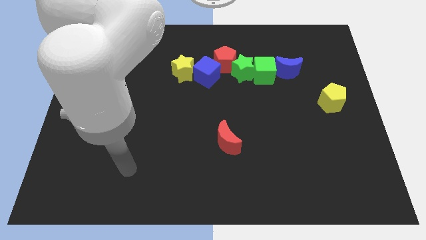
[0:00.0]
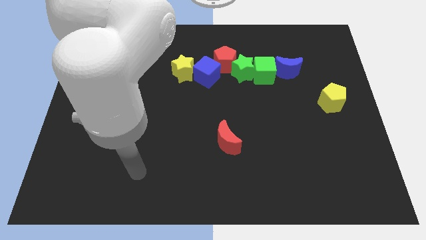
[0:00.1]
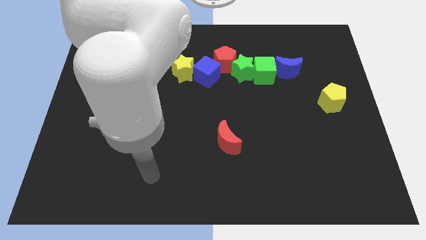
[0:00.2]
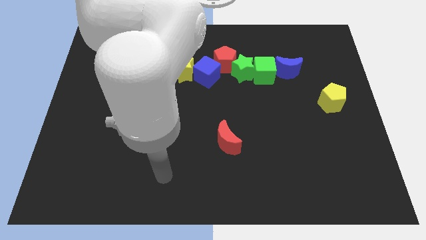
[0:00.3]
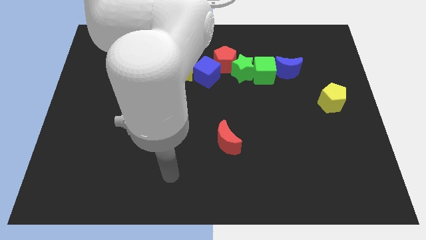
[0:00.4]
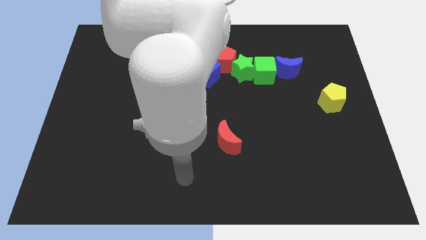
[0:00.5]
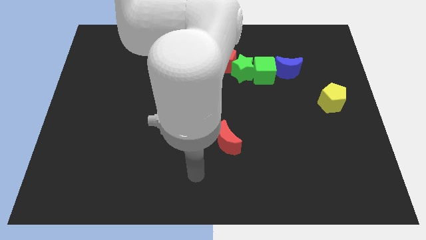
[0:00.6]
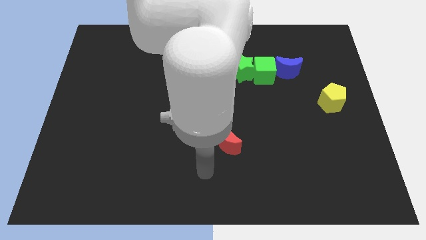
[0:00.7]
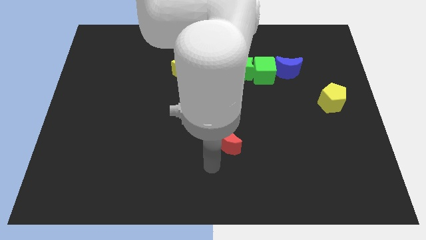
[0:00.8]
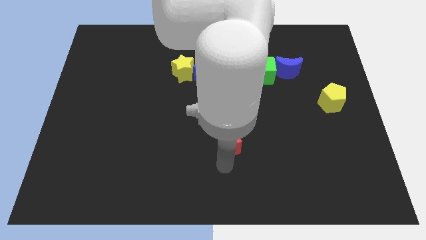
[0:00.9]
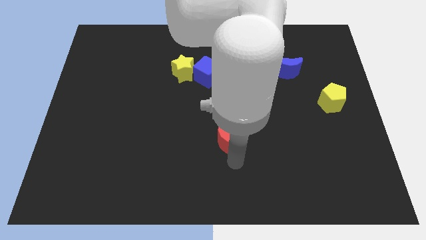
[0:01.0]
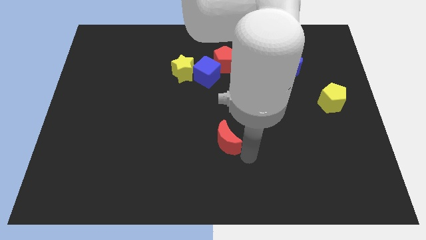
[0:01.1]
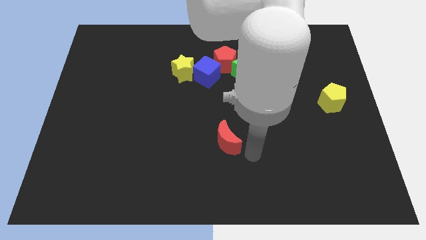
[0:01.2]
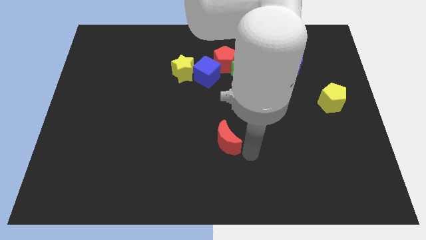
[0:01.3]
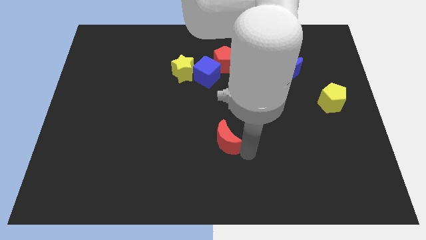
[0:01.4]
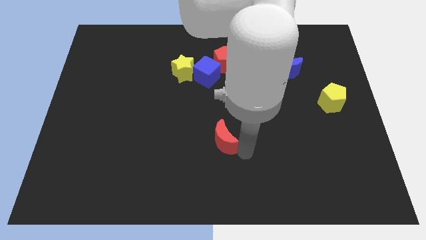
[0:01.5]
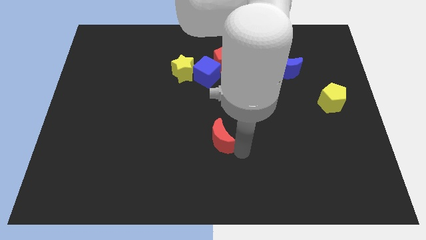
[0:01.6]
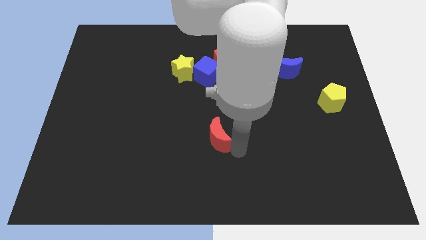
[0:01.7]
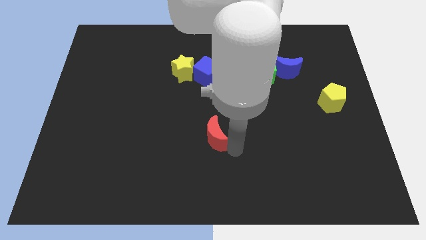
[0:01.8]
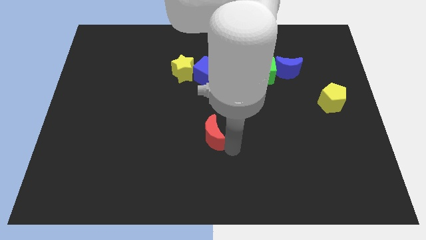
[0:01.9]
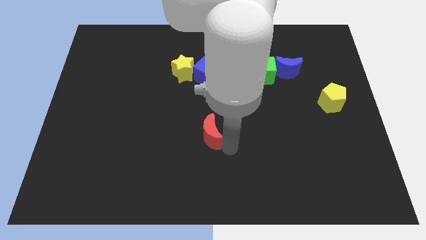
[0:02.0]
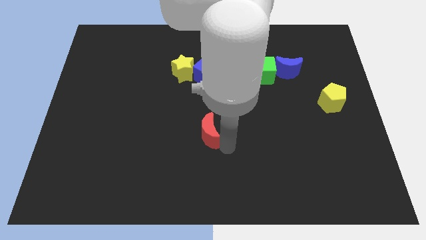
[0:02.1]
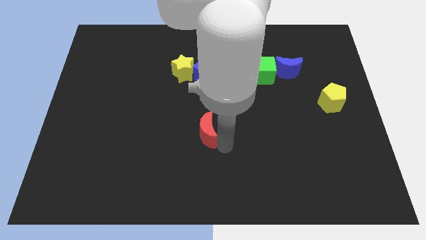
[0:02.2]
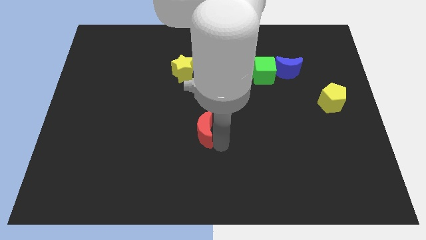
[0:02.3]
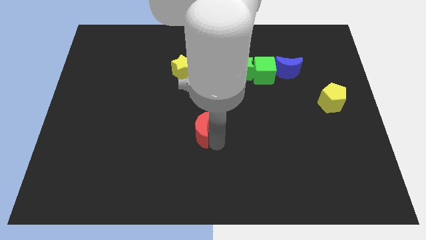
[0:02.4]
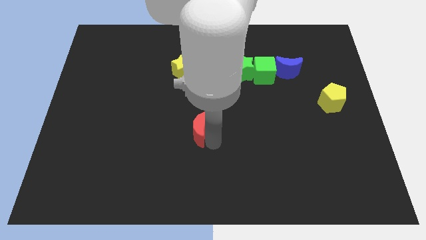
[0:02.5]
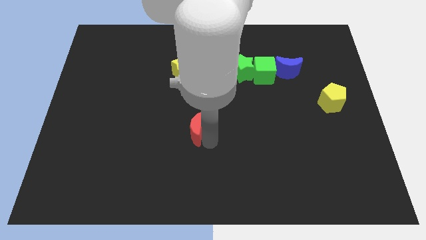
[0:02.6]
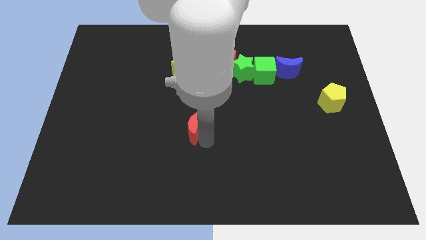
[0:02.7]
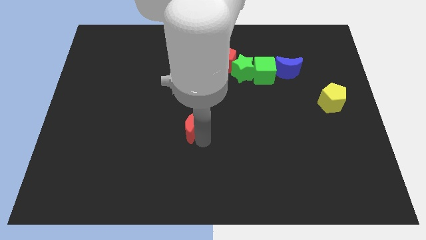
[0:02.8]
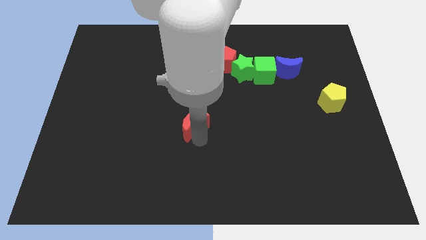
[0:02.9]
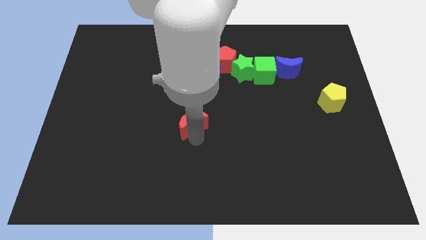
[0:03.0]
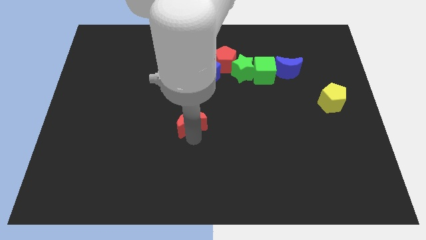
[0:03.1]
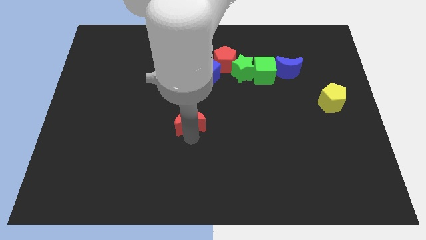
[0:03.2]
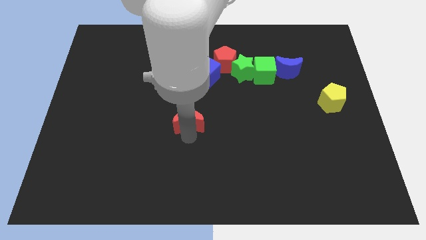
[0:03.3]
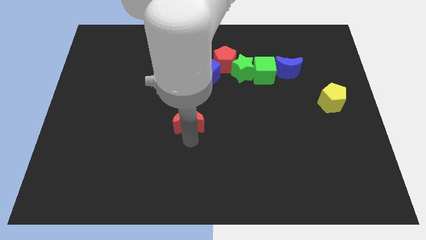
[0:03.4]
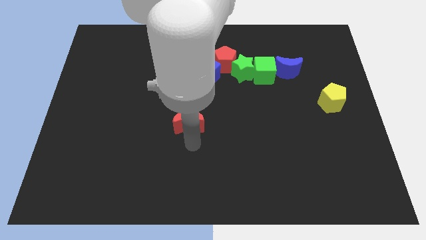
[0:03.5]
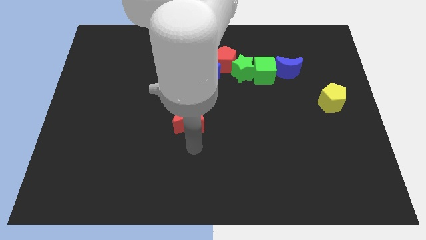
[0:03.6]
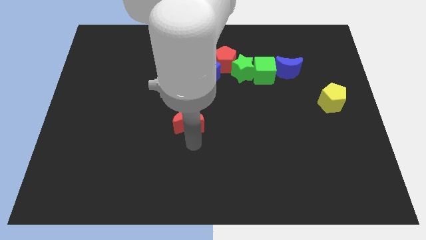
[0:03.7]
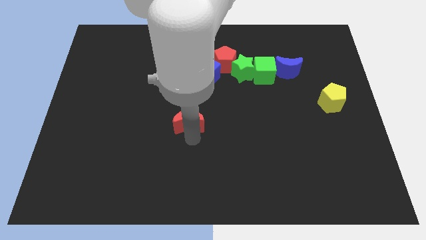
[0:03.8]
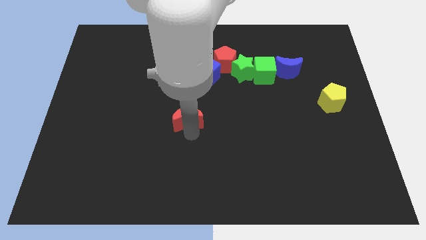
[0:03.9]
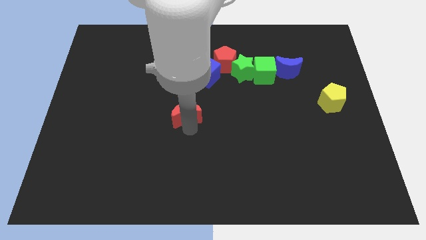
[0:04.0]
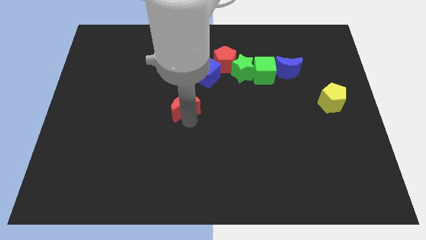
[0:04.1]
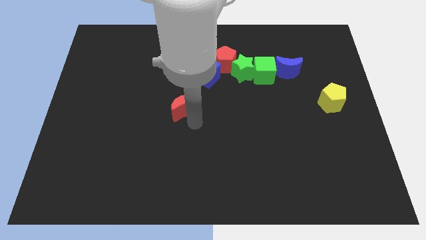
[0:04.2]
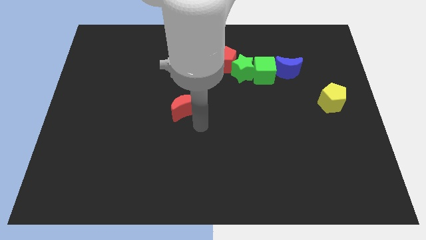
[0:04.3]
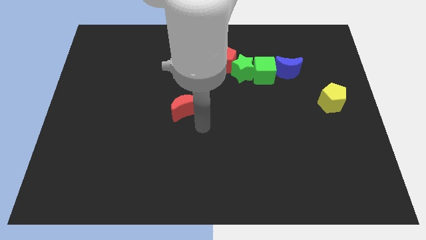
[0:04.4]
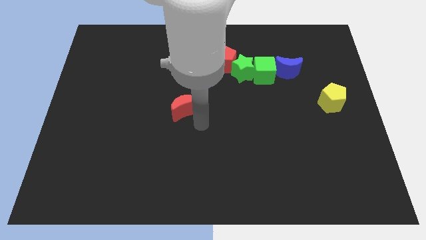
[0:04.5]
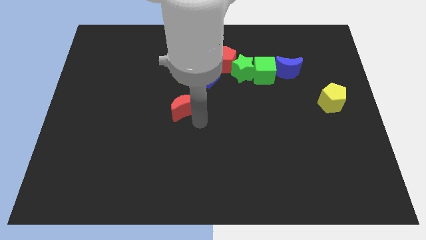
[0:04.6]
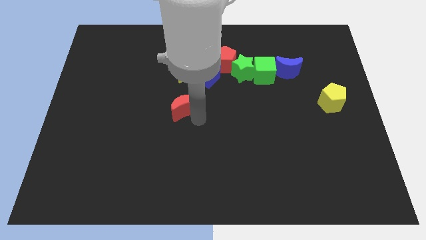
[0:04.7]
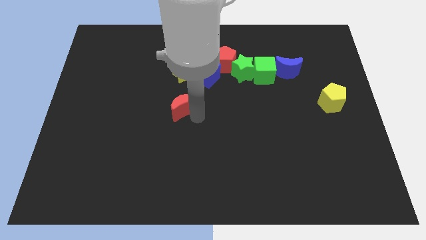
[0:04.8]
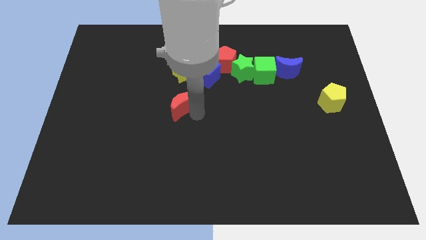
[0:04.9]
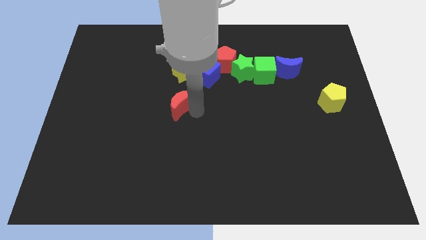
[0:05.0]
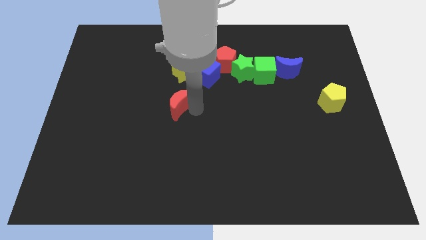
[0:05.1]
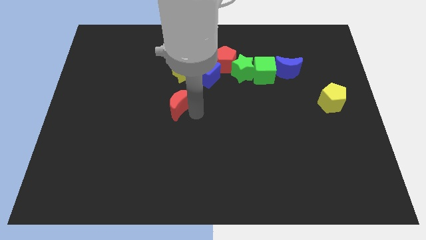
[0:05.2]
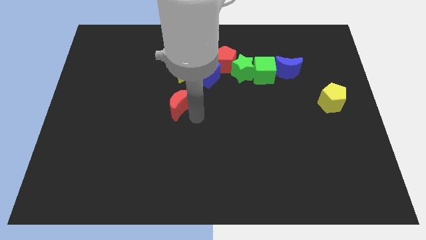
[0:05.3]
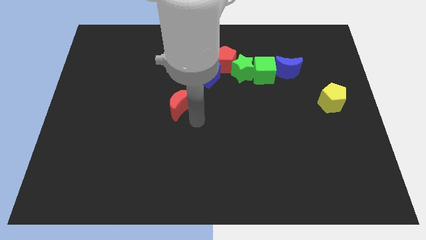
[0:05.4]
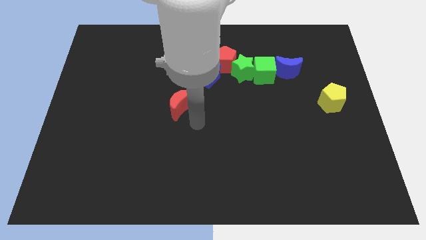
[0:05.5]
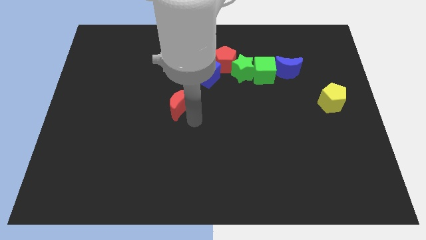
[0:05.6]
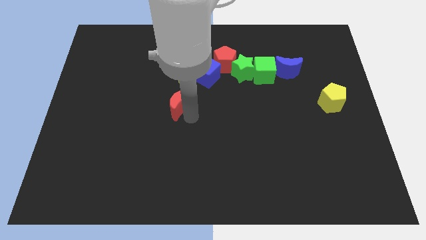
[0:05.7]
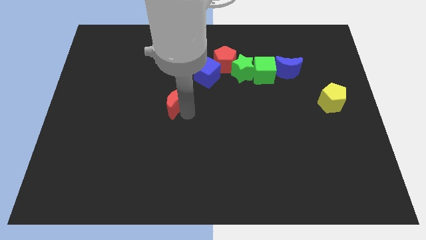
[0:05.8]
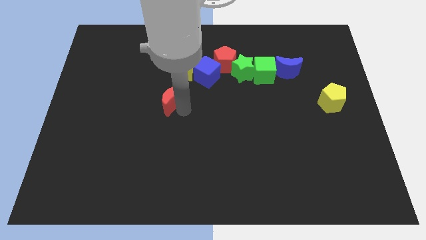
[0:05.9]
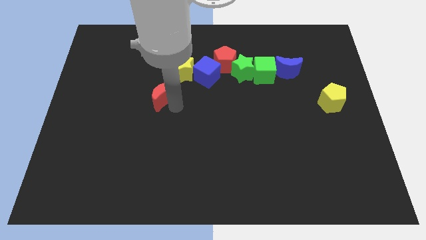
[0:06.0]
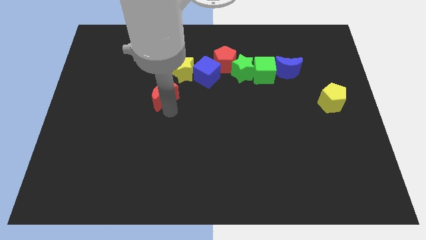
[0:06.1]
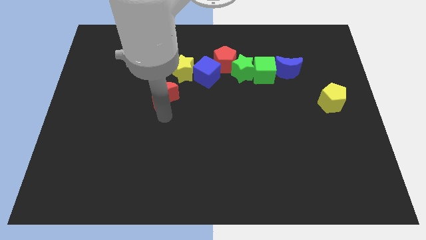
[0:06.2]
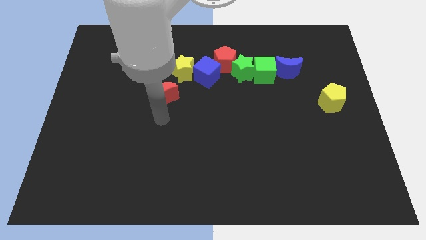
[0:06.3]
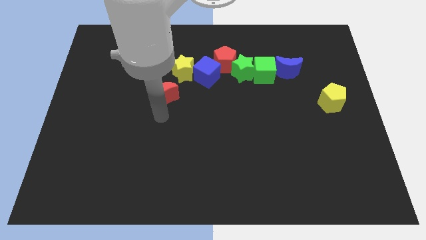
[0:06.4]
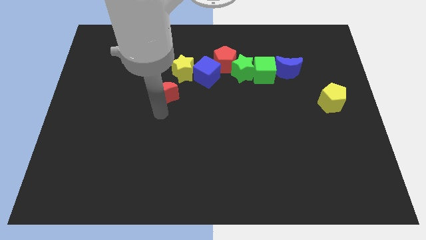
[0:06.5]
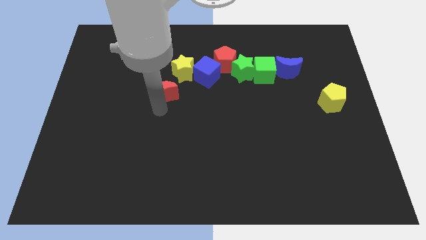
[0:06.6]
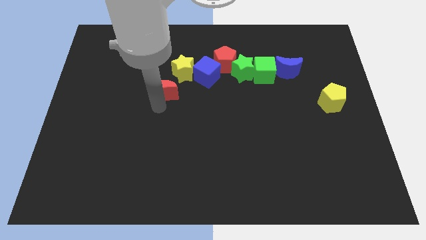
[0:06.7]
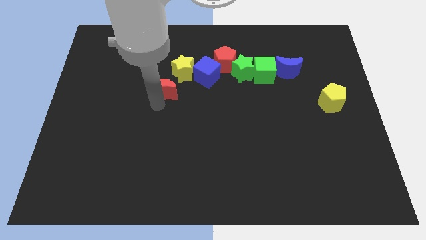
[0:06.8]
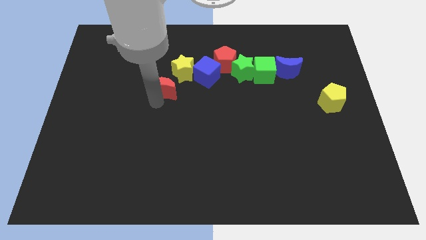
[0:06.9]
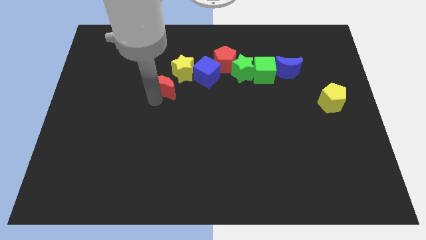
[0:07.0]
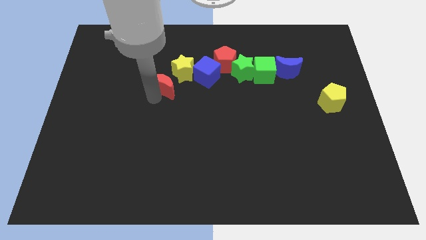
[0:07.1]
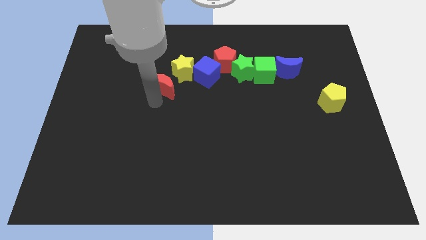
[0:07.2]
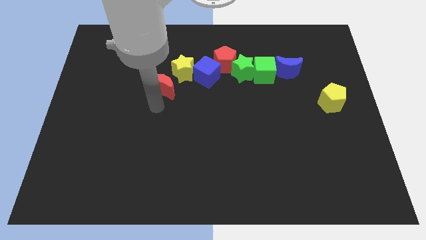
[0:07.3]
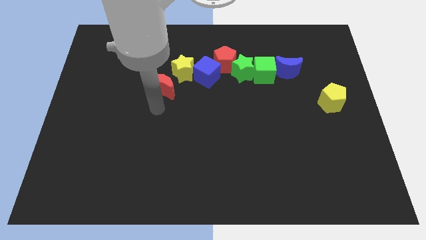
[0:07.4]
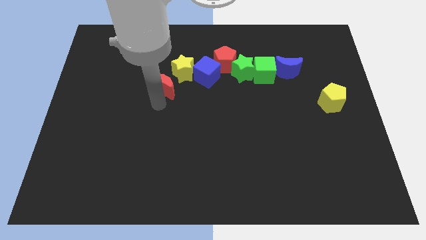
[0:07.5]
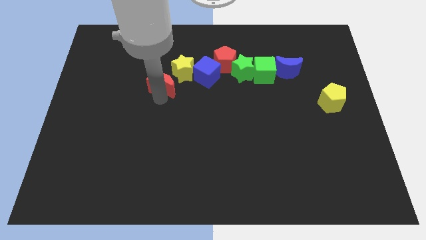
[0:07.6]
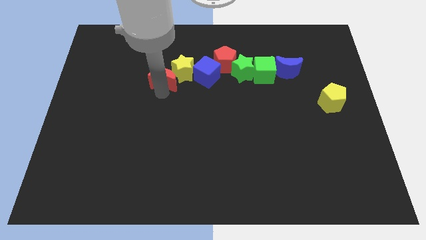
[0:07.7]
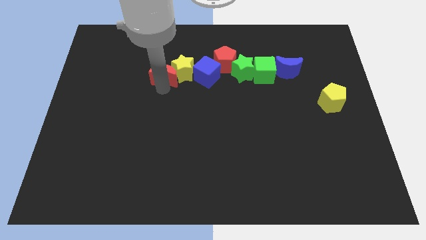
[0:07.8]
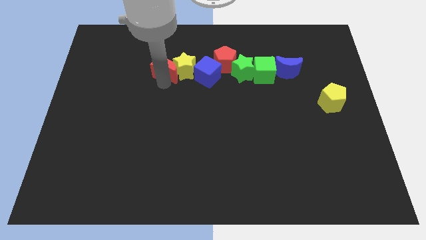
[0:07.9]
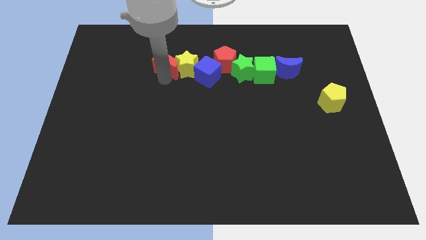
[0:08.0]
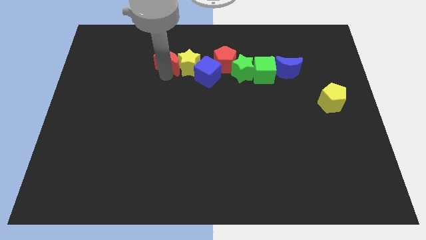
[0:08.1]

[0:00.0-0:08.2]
push the red moon to the top left of the blue cube
